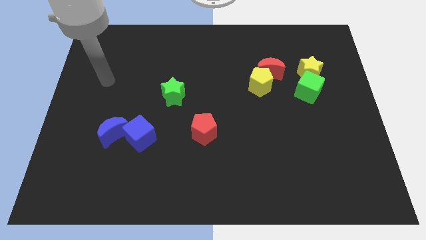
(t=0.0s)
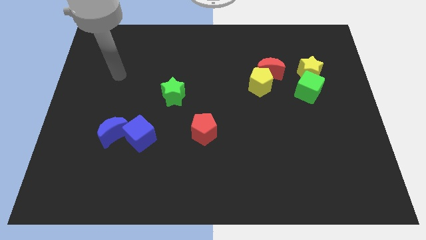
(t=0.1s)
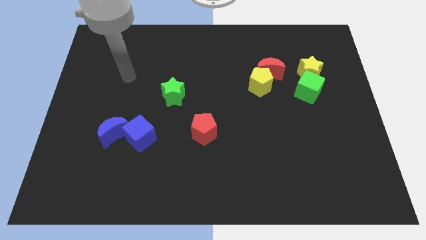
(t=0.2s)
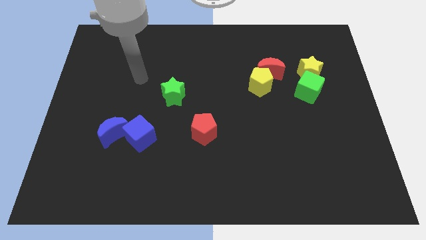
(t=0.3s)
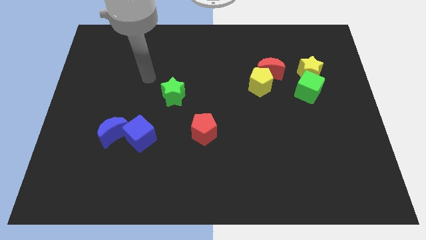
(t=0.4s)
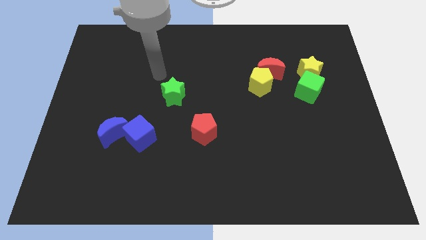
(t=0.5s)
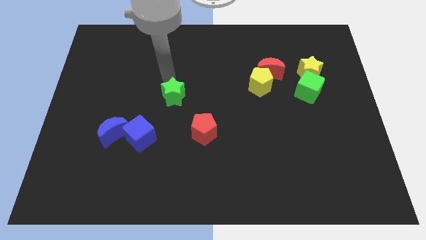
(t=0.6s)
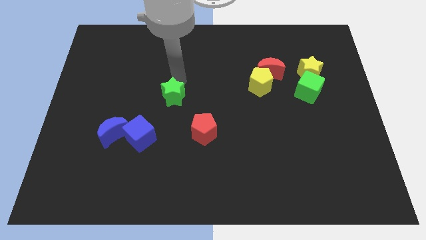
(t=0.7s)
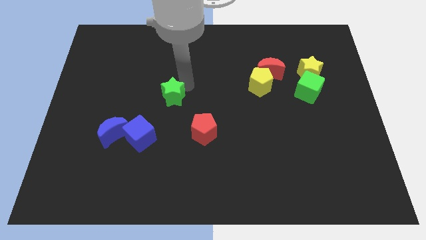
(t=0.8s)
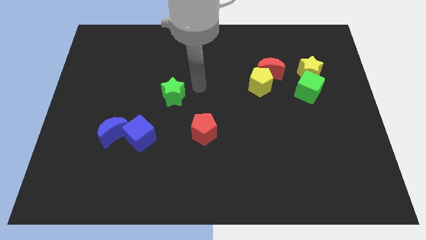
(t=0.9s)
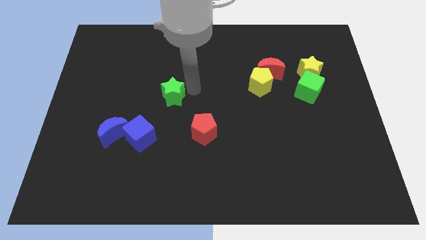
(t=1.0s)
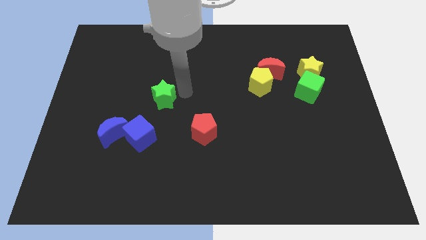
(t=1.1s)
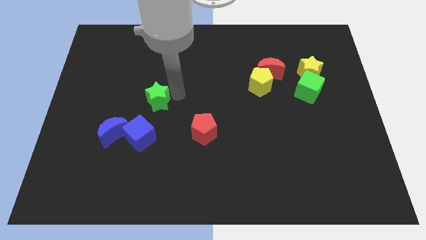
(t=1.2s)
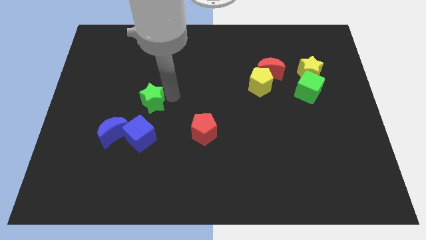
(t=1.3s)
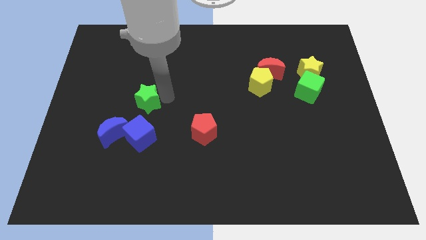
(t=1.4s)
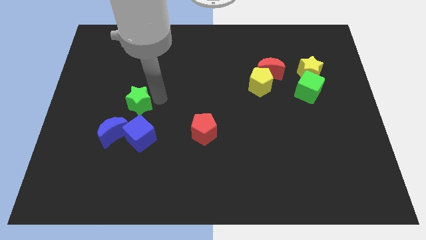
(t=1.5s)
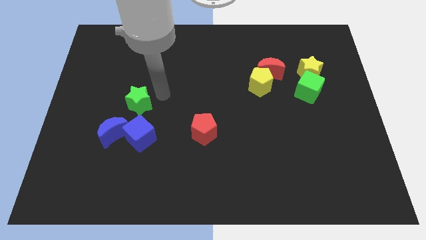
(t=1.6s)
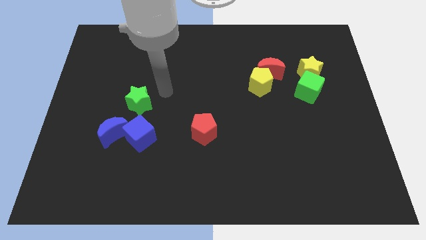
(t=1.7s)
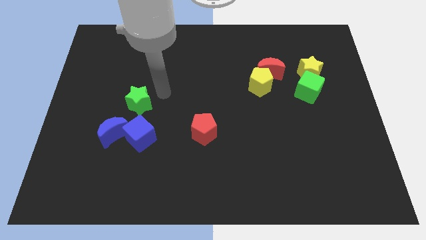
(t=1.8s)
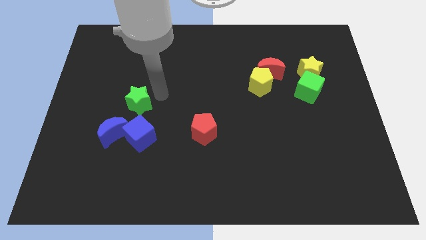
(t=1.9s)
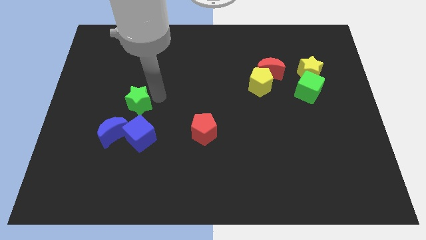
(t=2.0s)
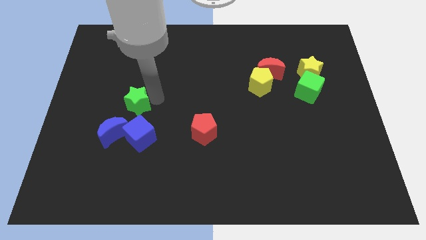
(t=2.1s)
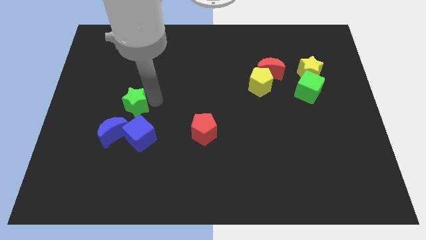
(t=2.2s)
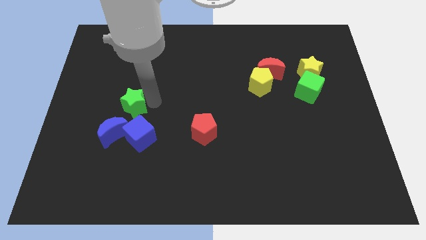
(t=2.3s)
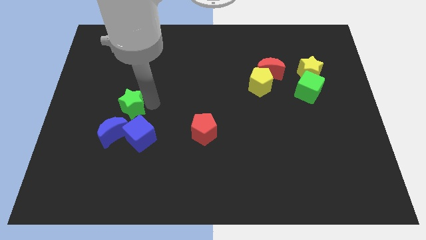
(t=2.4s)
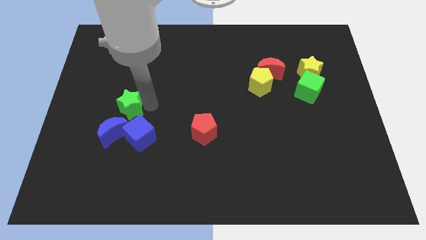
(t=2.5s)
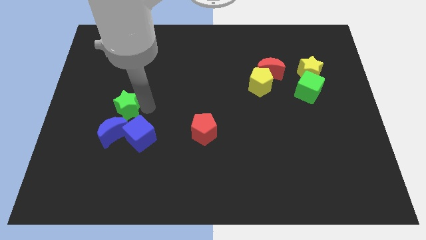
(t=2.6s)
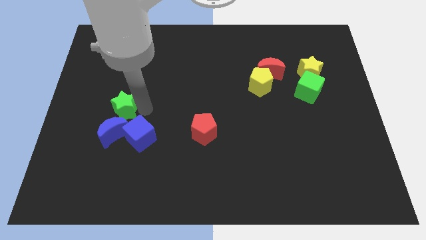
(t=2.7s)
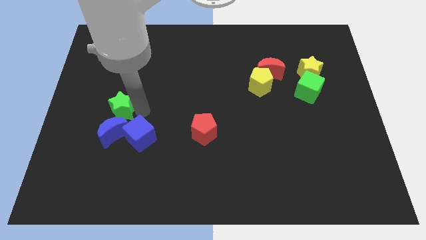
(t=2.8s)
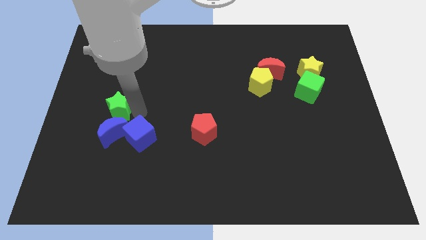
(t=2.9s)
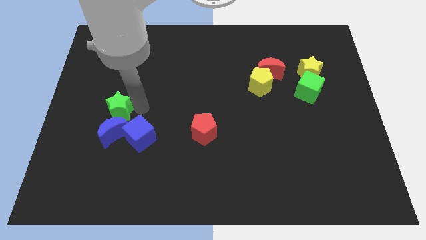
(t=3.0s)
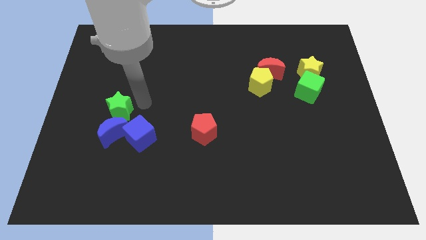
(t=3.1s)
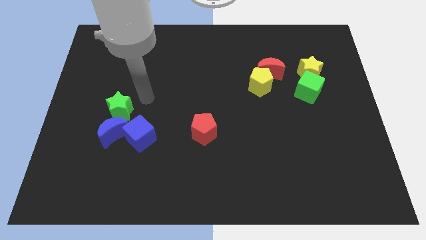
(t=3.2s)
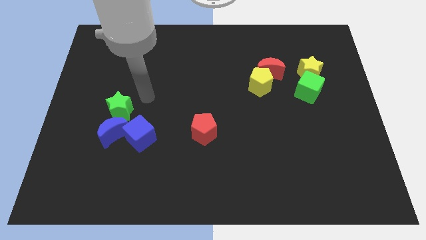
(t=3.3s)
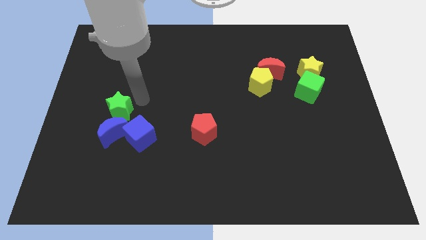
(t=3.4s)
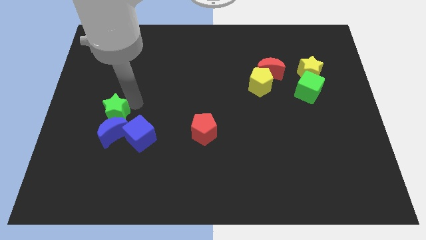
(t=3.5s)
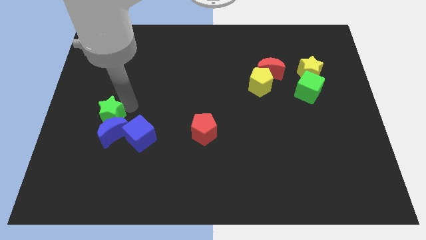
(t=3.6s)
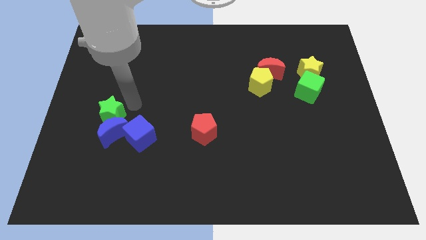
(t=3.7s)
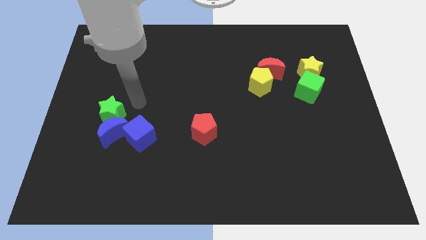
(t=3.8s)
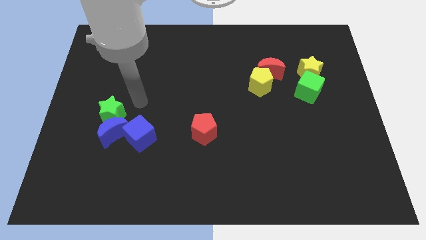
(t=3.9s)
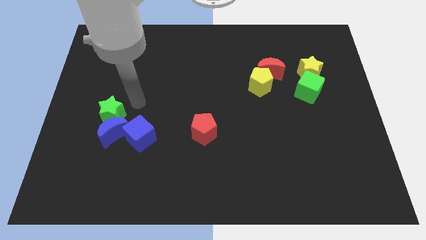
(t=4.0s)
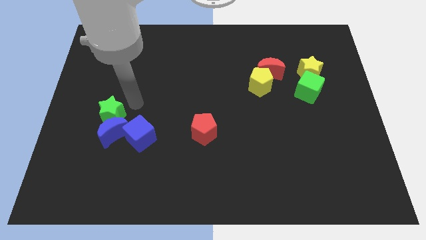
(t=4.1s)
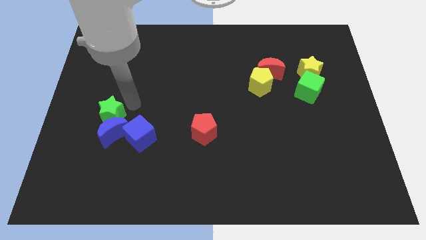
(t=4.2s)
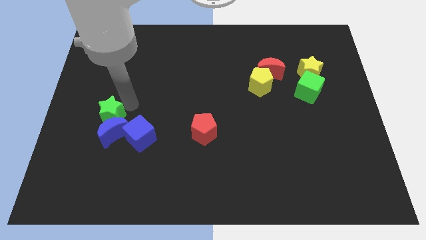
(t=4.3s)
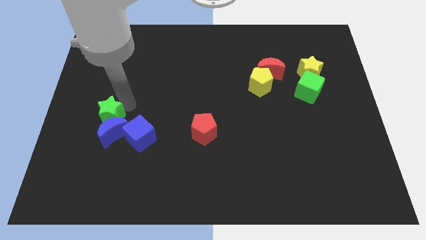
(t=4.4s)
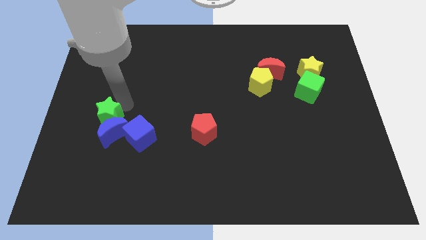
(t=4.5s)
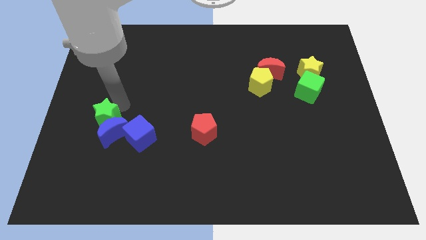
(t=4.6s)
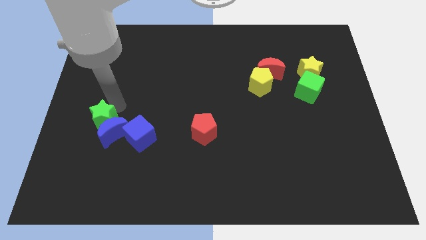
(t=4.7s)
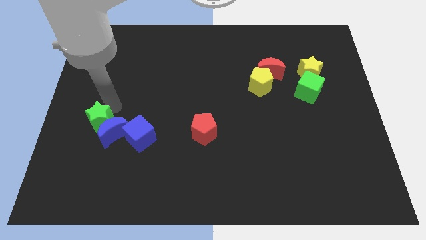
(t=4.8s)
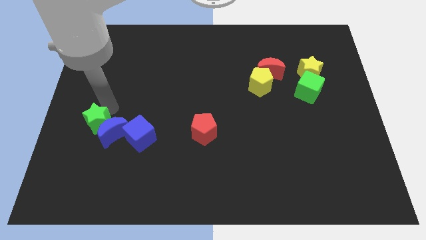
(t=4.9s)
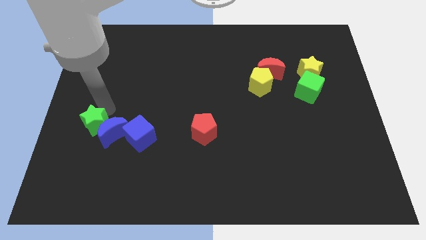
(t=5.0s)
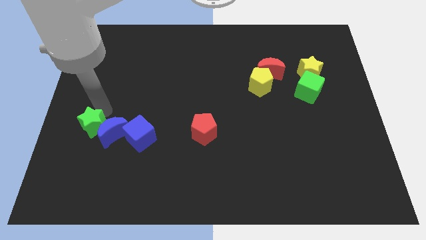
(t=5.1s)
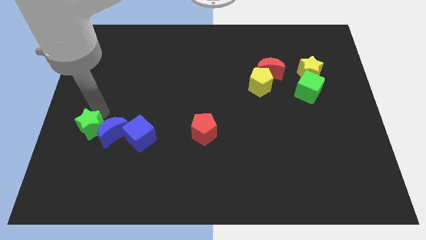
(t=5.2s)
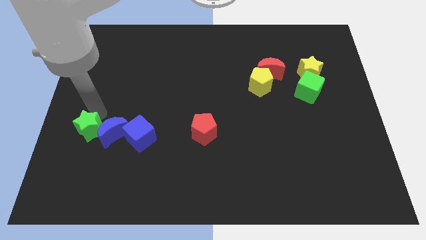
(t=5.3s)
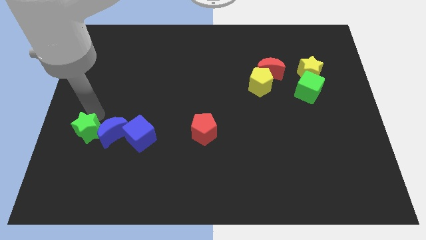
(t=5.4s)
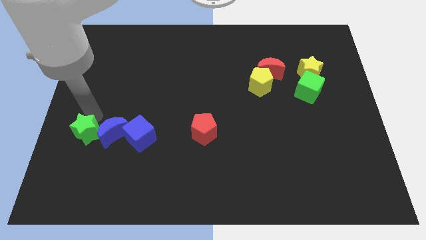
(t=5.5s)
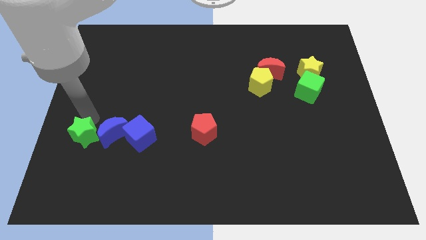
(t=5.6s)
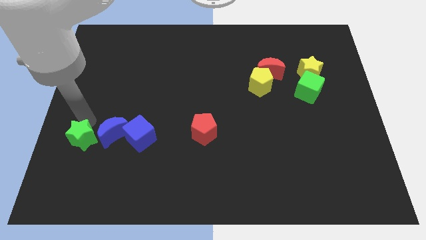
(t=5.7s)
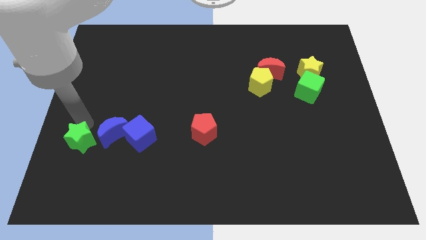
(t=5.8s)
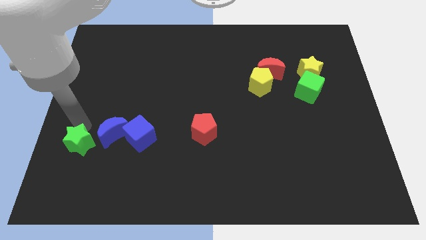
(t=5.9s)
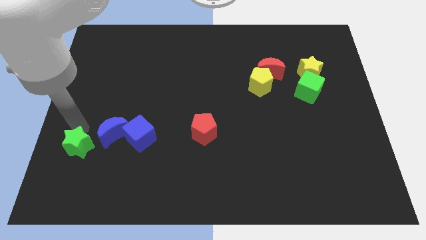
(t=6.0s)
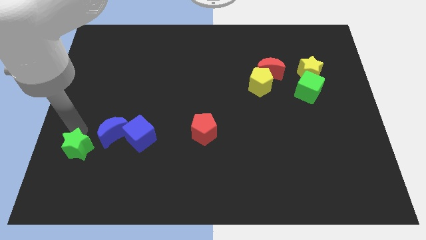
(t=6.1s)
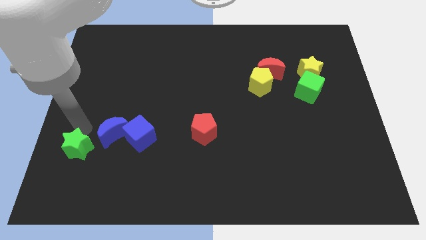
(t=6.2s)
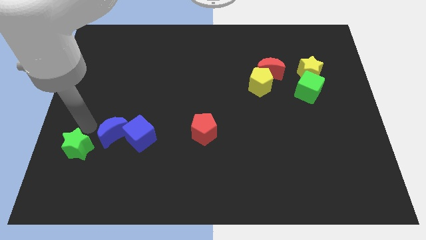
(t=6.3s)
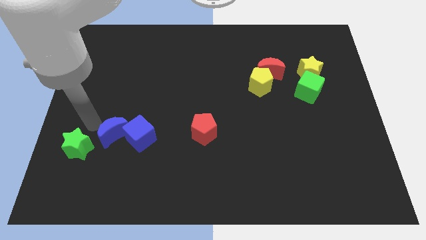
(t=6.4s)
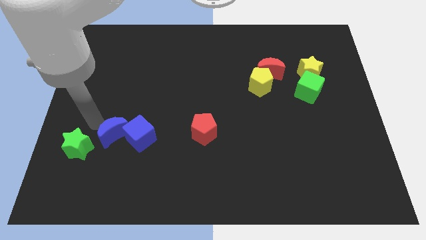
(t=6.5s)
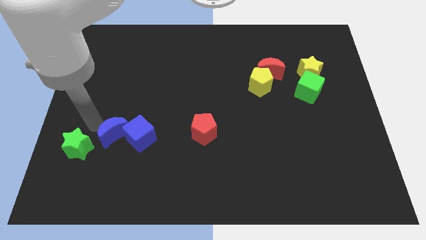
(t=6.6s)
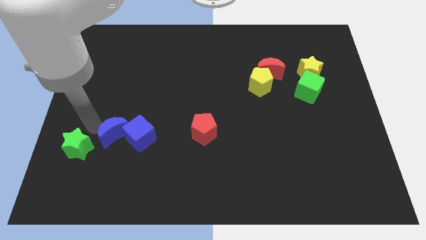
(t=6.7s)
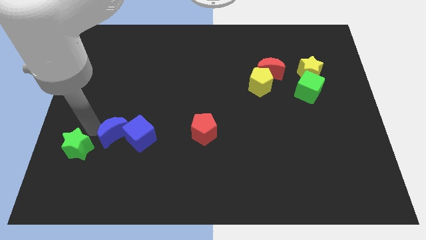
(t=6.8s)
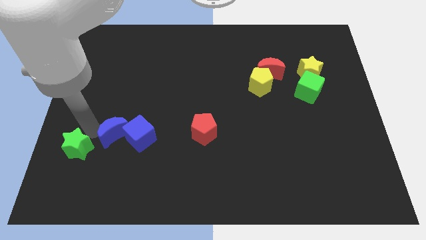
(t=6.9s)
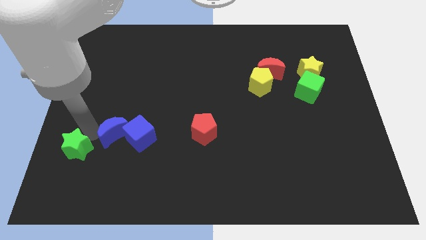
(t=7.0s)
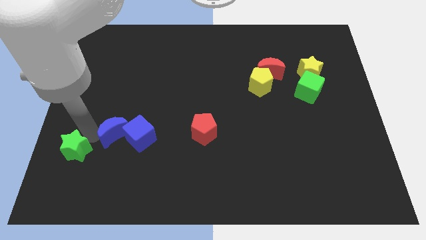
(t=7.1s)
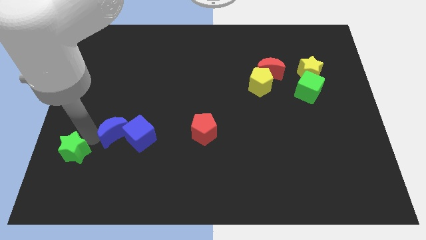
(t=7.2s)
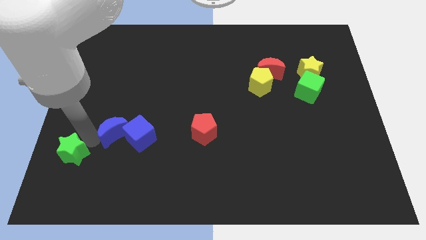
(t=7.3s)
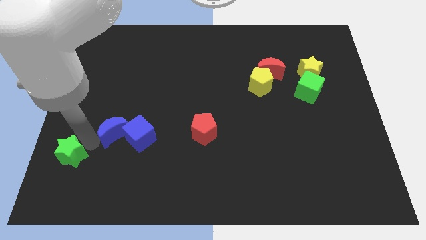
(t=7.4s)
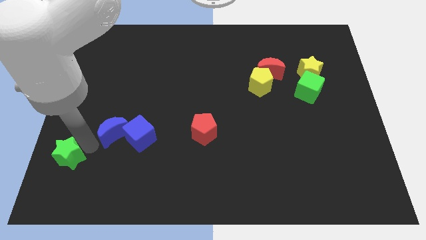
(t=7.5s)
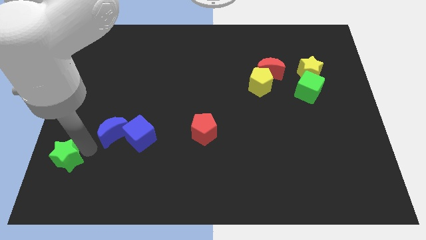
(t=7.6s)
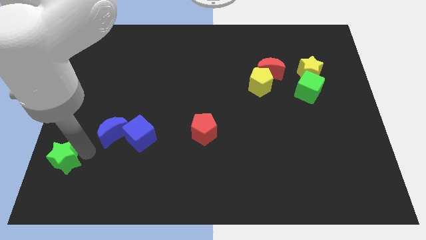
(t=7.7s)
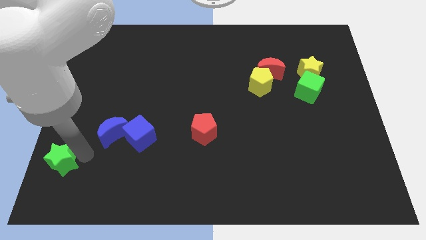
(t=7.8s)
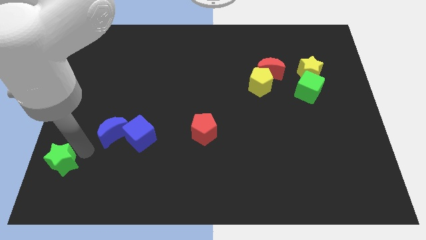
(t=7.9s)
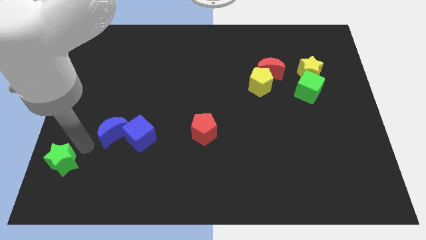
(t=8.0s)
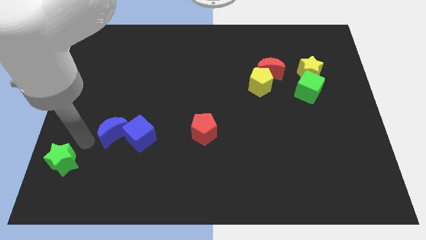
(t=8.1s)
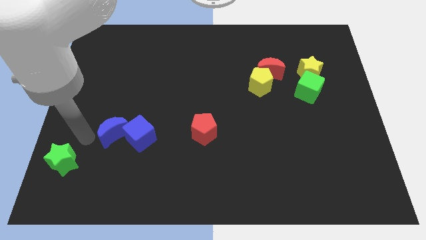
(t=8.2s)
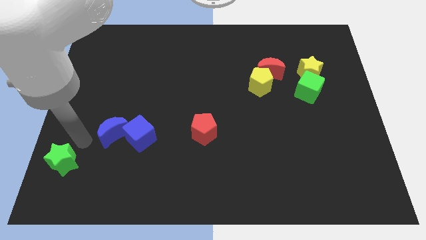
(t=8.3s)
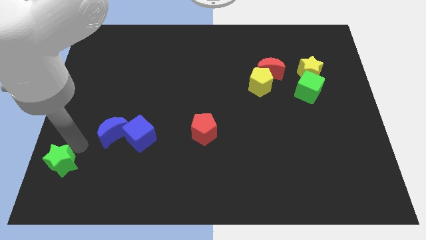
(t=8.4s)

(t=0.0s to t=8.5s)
slide the green star to the lower left corner
